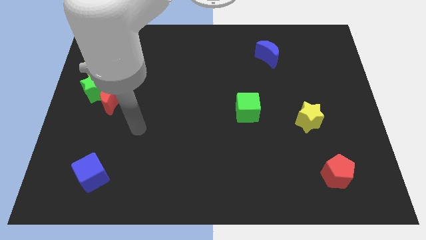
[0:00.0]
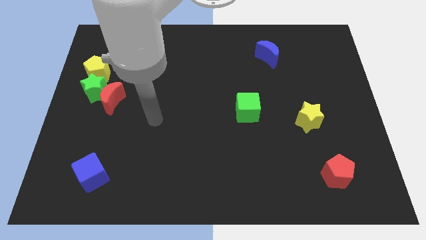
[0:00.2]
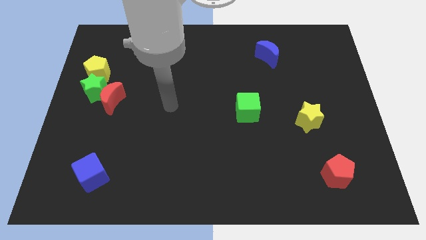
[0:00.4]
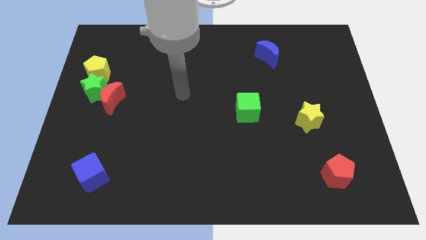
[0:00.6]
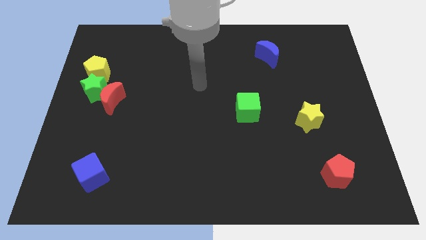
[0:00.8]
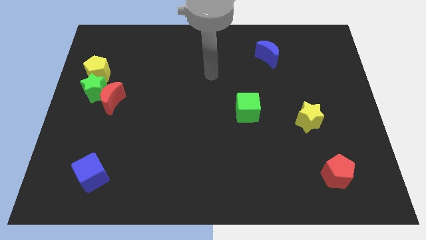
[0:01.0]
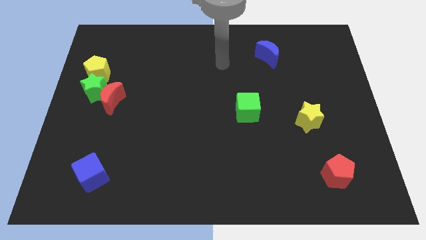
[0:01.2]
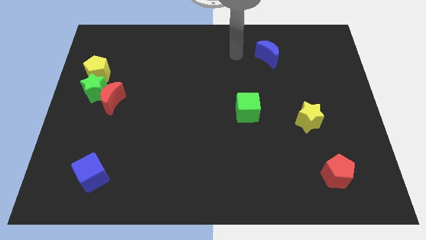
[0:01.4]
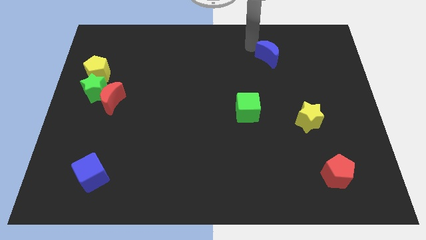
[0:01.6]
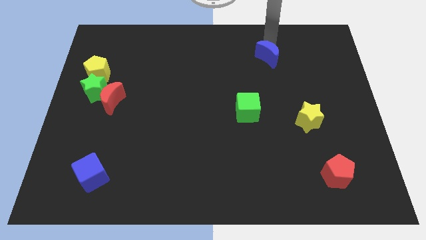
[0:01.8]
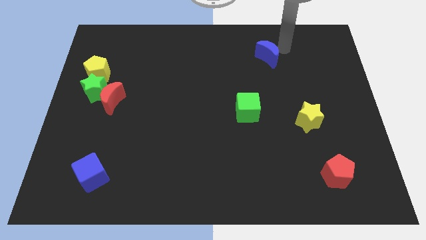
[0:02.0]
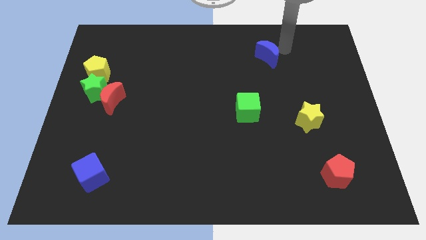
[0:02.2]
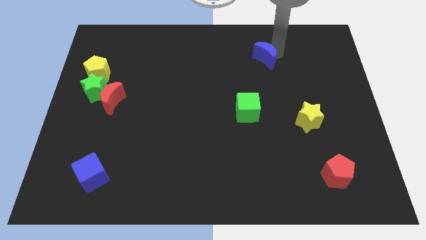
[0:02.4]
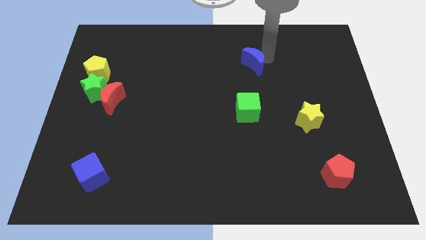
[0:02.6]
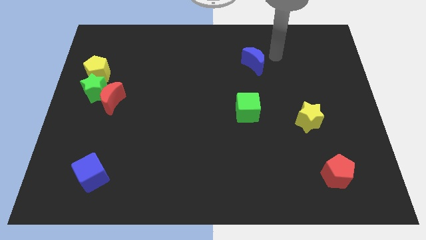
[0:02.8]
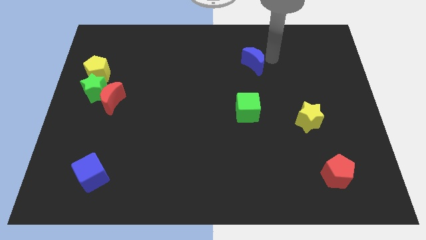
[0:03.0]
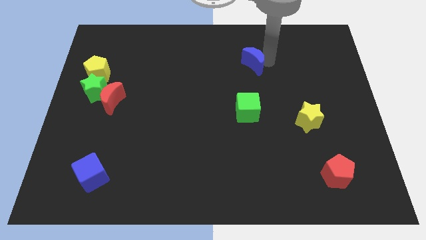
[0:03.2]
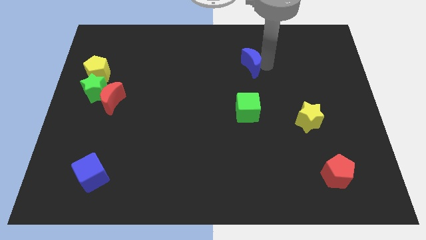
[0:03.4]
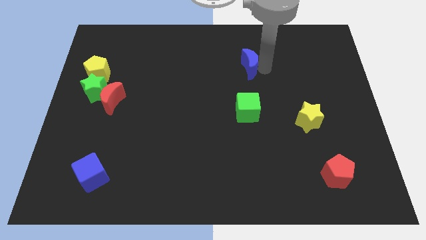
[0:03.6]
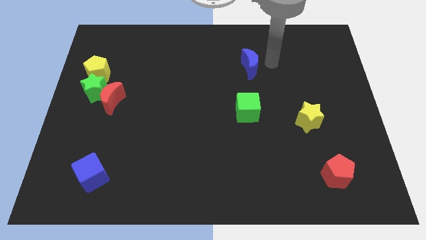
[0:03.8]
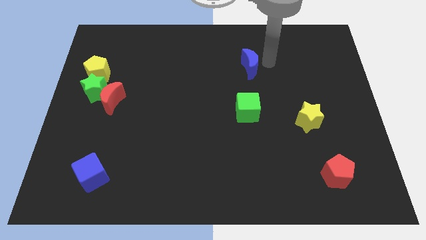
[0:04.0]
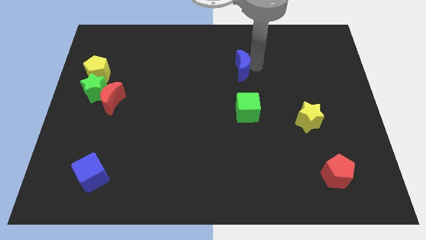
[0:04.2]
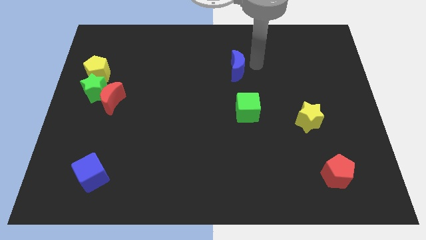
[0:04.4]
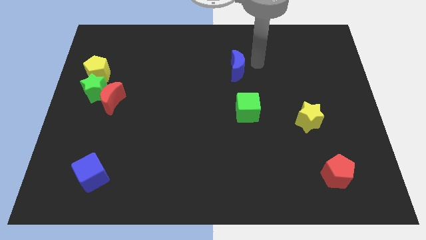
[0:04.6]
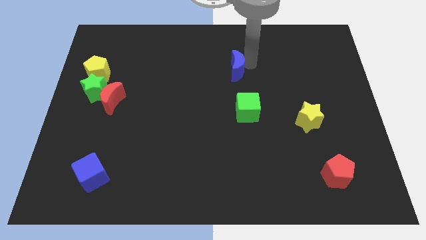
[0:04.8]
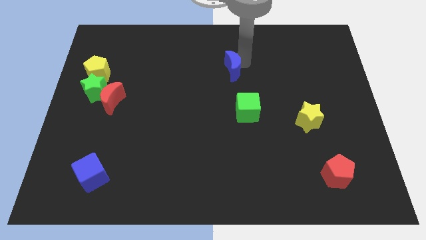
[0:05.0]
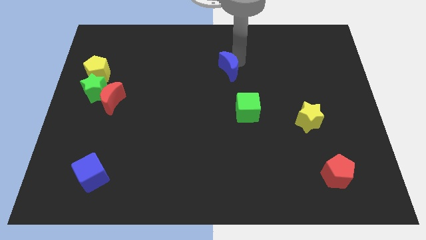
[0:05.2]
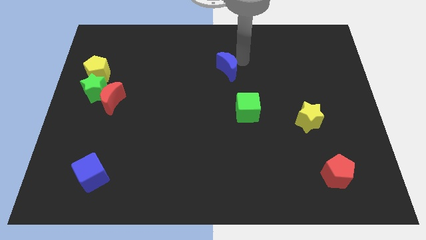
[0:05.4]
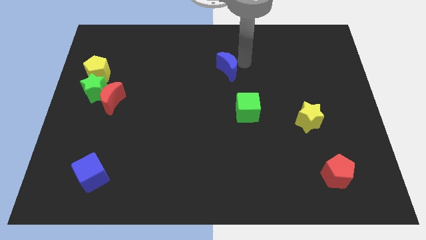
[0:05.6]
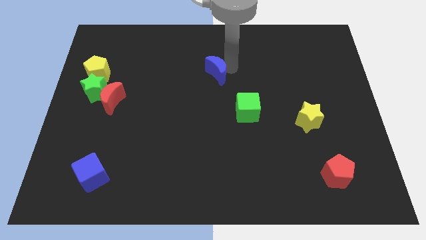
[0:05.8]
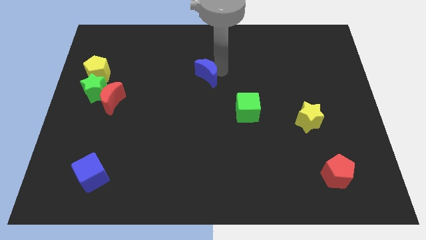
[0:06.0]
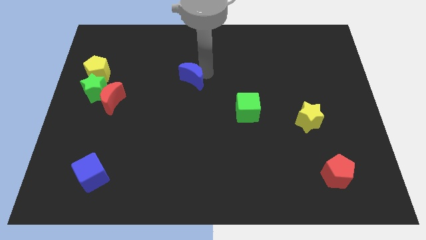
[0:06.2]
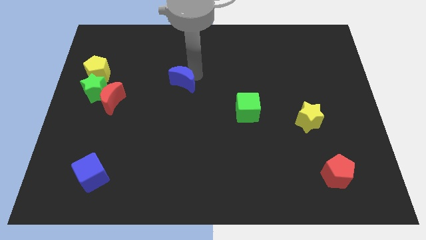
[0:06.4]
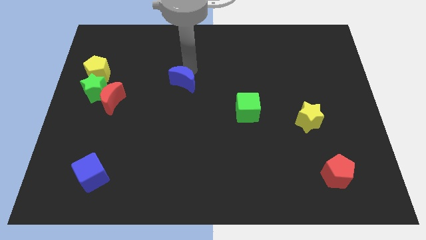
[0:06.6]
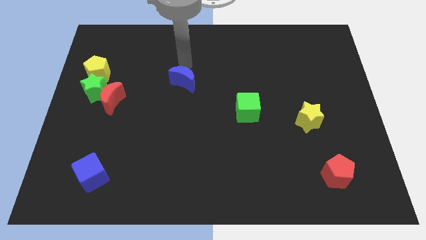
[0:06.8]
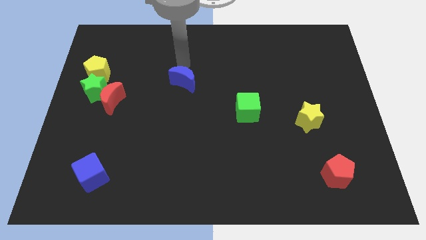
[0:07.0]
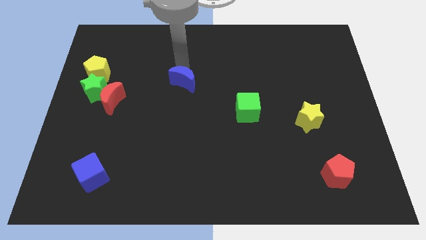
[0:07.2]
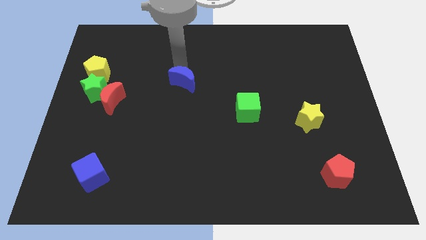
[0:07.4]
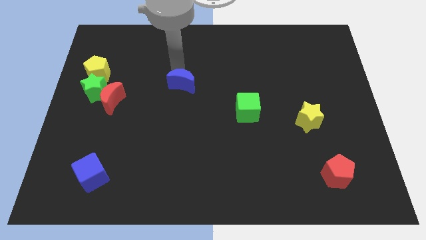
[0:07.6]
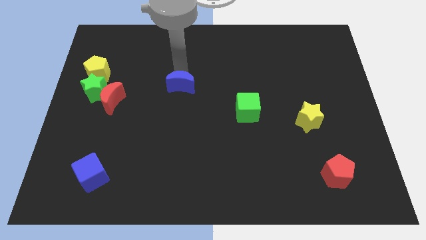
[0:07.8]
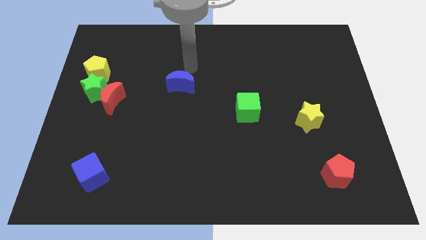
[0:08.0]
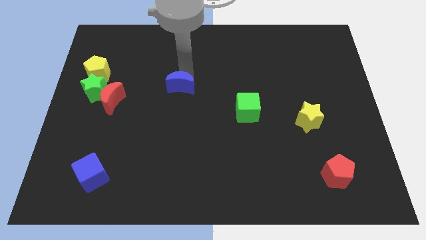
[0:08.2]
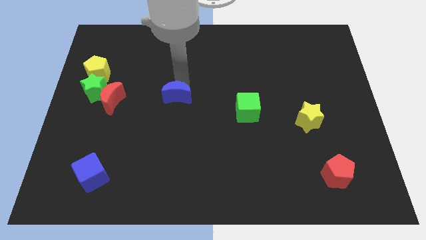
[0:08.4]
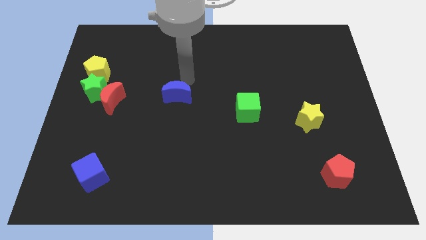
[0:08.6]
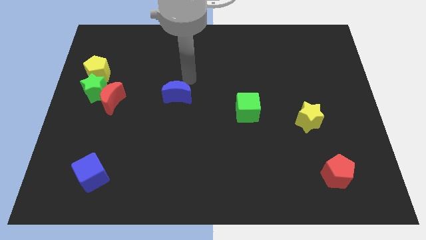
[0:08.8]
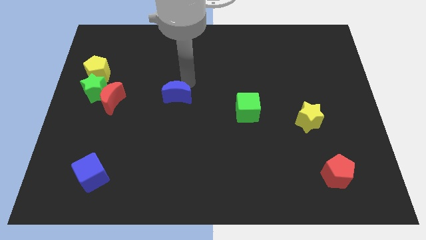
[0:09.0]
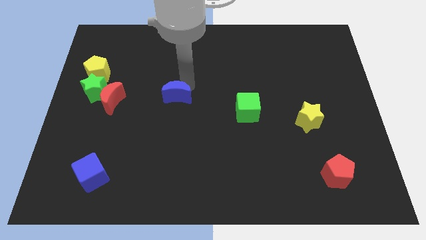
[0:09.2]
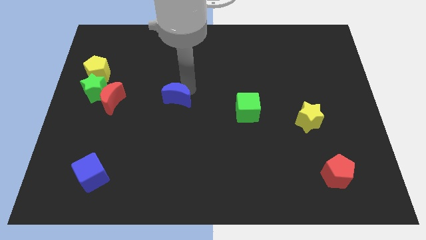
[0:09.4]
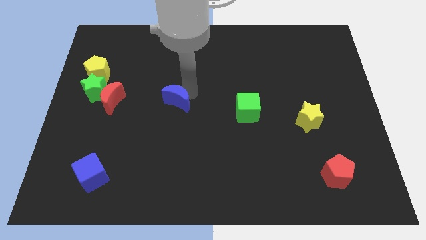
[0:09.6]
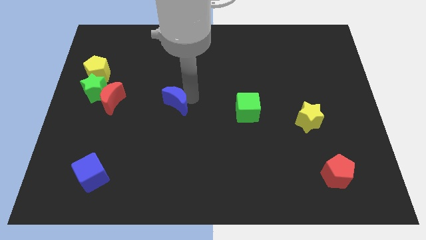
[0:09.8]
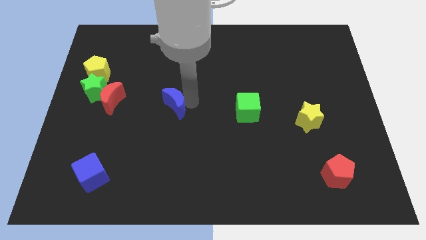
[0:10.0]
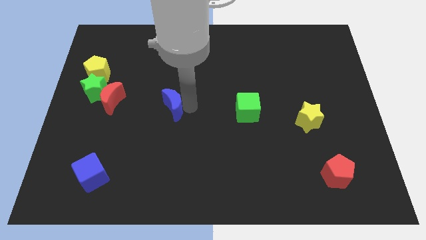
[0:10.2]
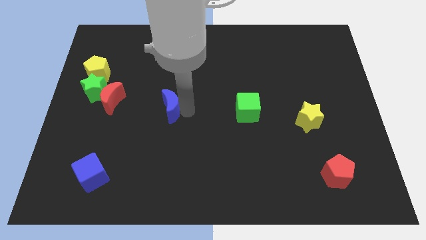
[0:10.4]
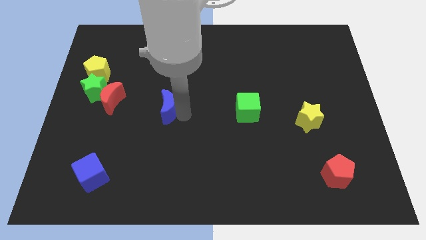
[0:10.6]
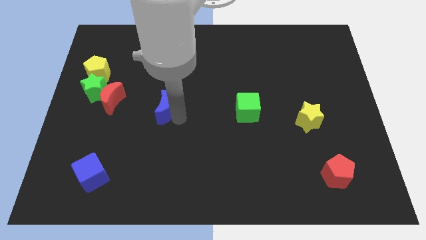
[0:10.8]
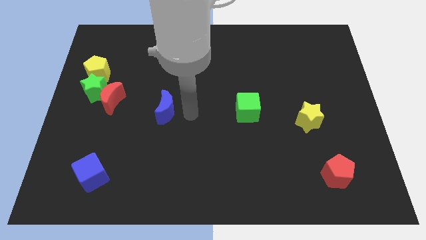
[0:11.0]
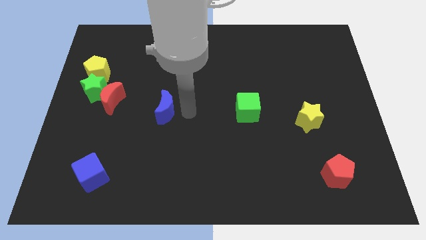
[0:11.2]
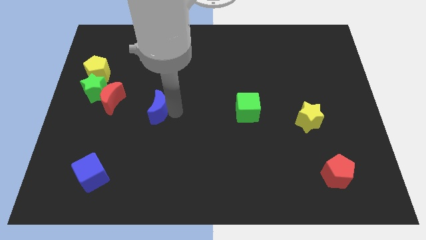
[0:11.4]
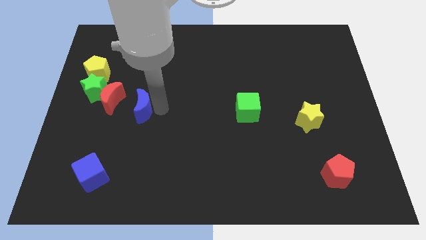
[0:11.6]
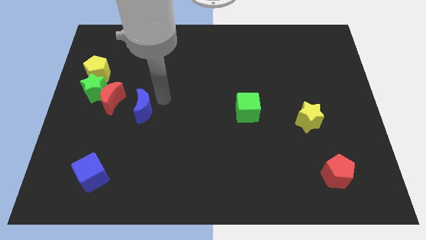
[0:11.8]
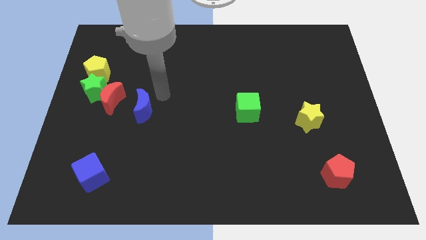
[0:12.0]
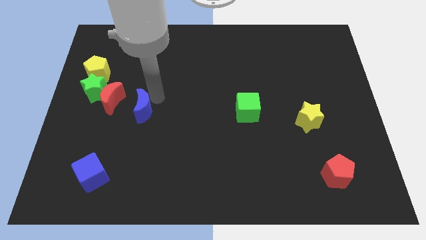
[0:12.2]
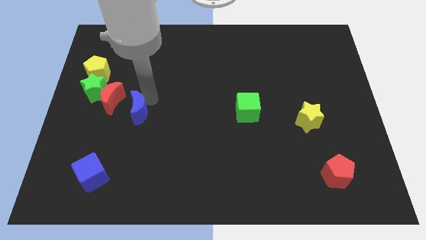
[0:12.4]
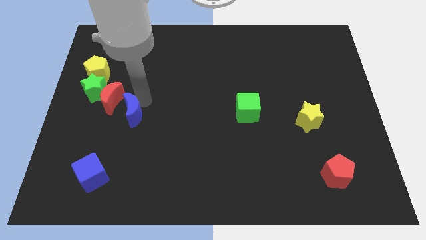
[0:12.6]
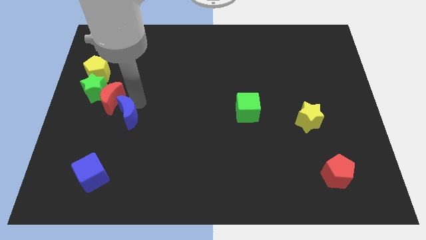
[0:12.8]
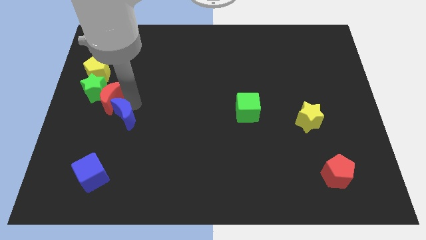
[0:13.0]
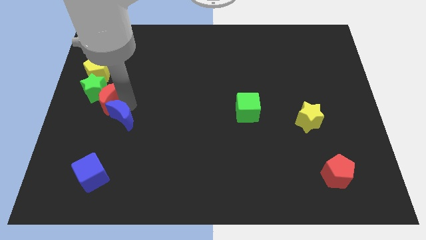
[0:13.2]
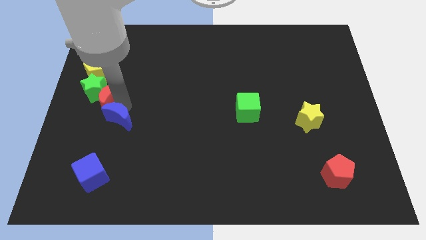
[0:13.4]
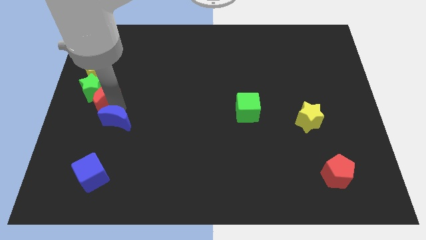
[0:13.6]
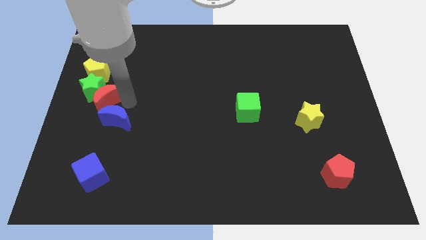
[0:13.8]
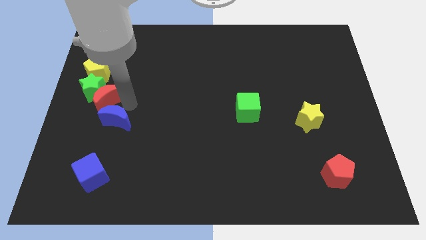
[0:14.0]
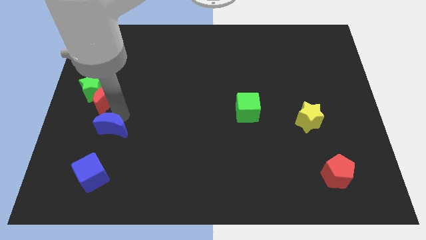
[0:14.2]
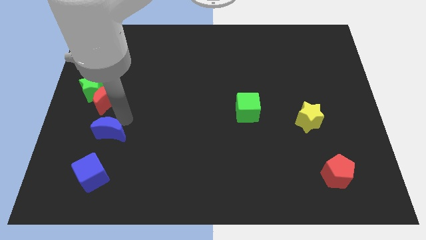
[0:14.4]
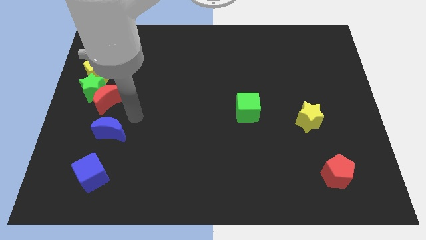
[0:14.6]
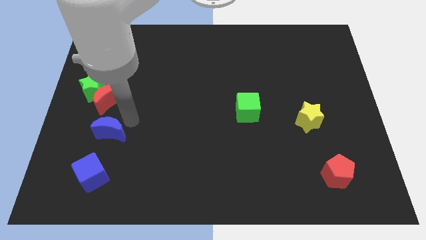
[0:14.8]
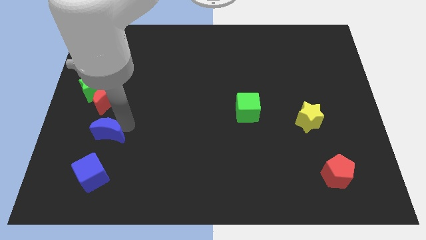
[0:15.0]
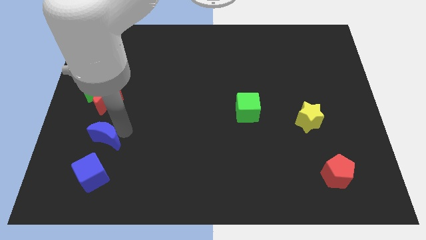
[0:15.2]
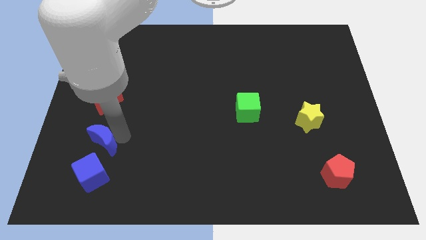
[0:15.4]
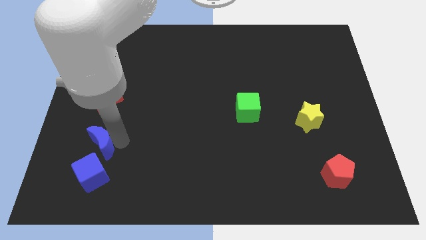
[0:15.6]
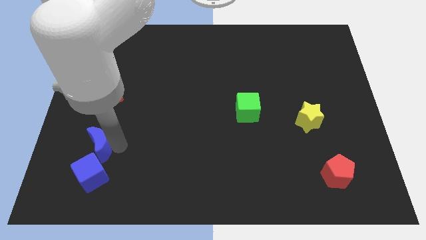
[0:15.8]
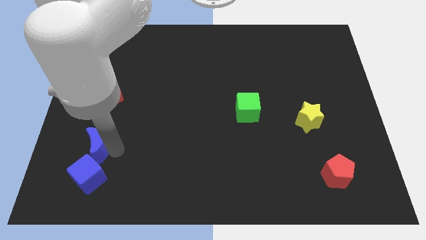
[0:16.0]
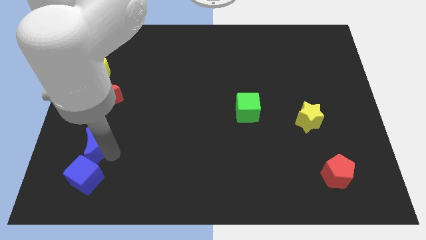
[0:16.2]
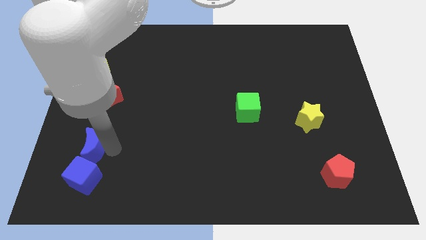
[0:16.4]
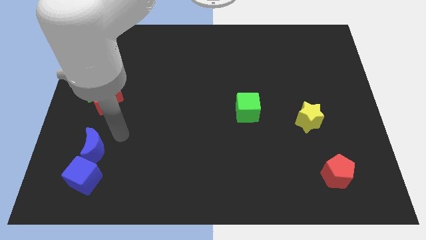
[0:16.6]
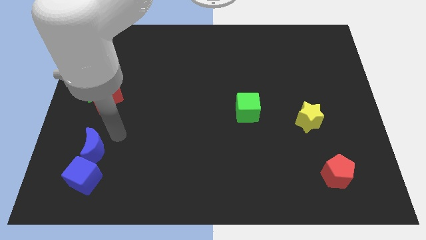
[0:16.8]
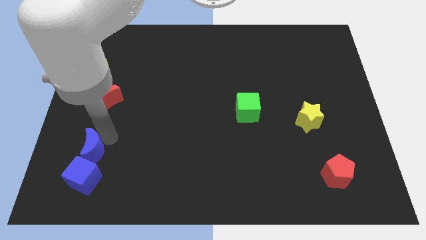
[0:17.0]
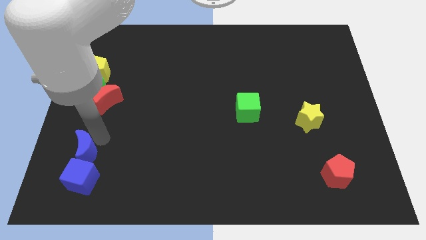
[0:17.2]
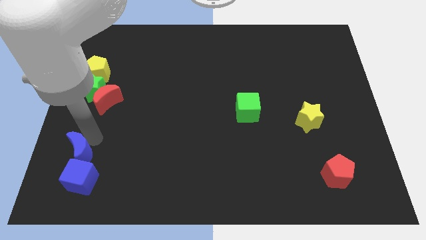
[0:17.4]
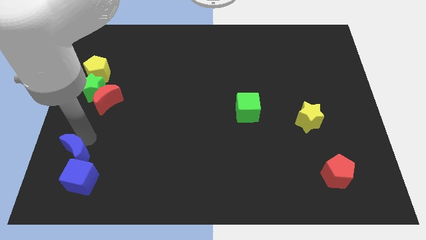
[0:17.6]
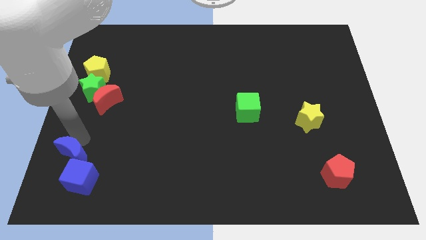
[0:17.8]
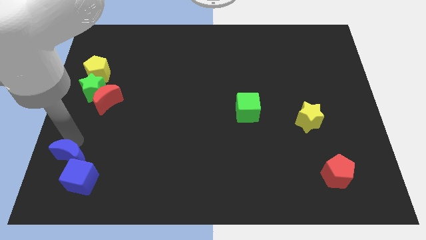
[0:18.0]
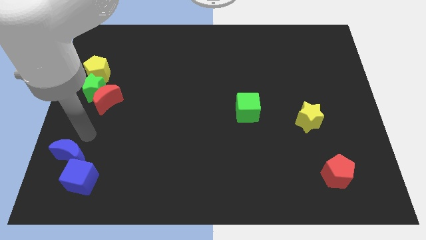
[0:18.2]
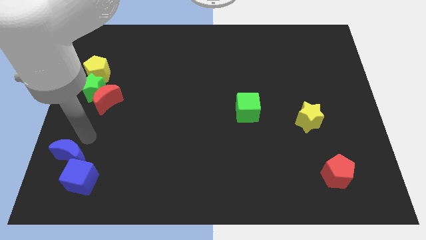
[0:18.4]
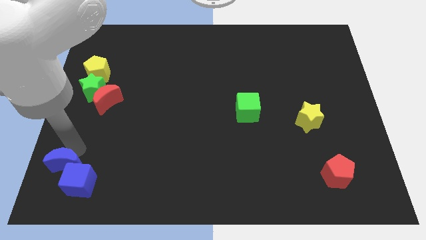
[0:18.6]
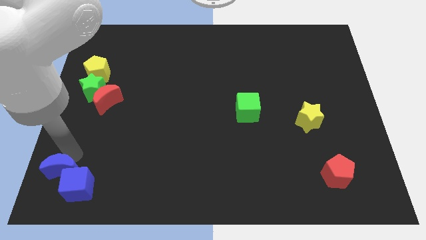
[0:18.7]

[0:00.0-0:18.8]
slide the blue moon to the bottom left of the board
